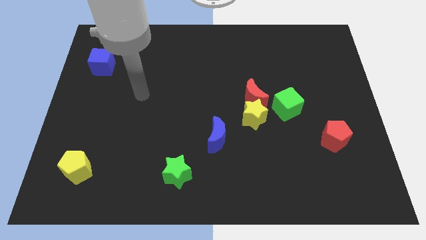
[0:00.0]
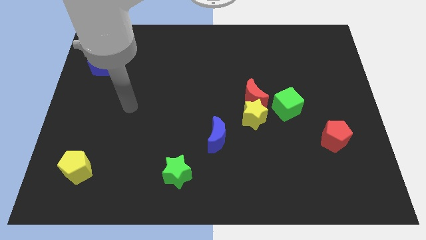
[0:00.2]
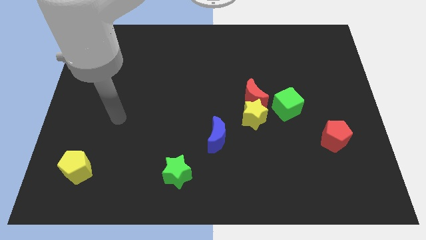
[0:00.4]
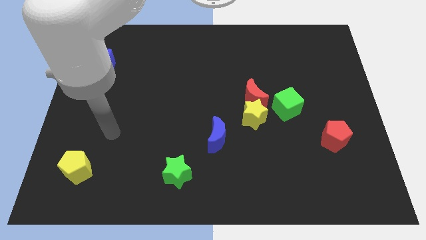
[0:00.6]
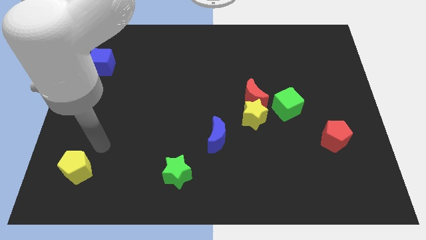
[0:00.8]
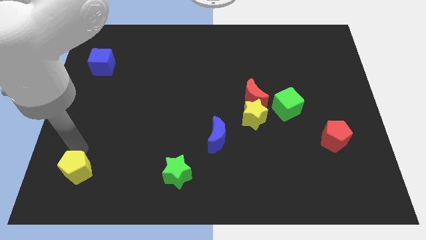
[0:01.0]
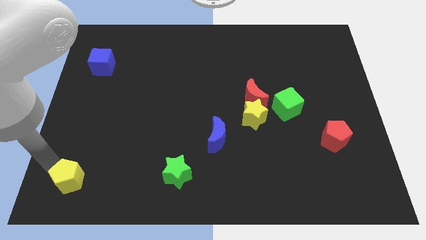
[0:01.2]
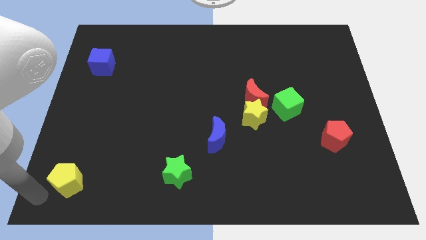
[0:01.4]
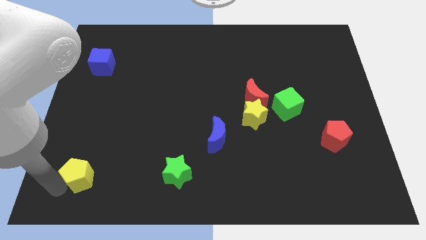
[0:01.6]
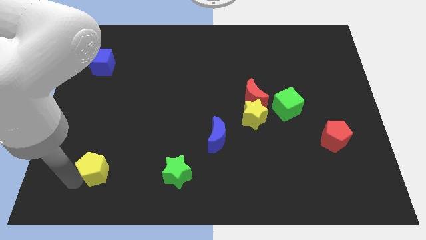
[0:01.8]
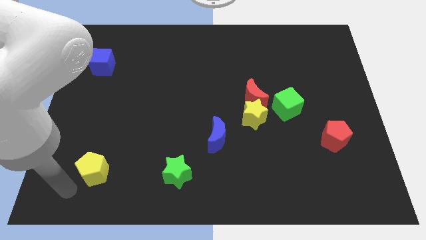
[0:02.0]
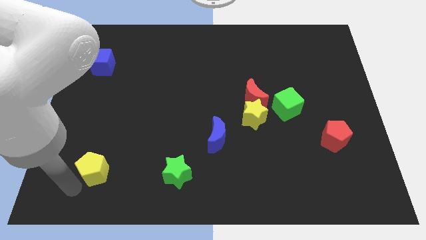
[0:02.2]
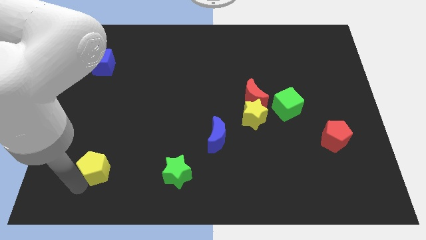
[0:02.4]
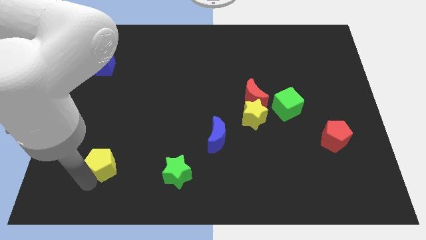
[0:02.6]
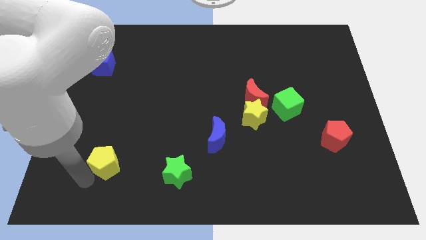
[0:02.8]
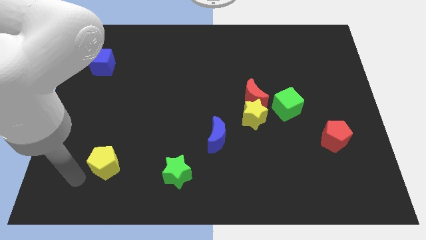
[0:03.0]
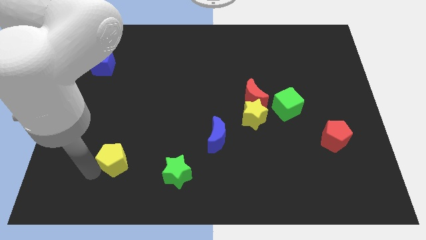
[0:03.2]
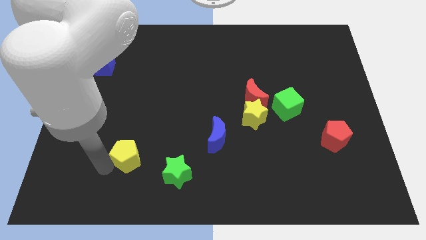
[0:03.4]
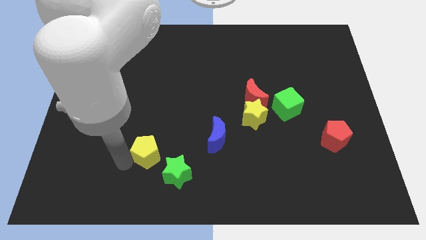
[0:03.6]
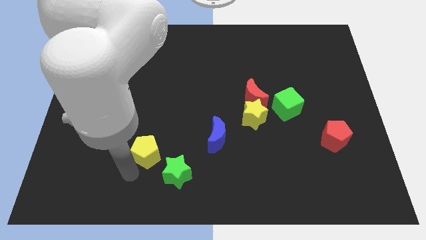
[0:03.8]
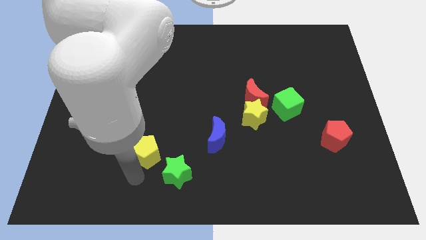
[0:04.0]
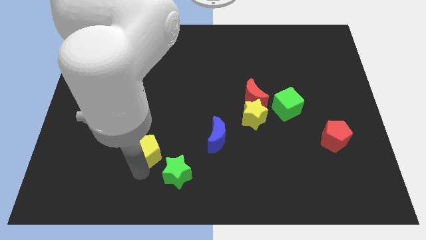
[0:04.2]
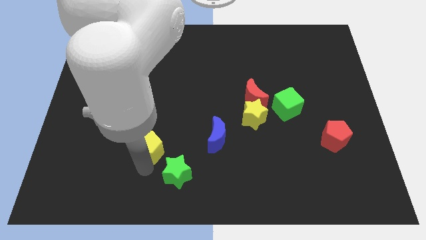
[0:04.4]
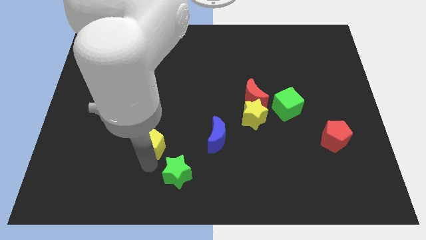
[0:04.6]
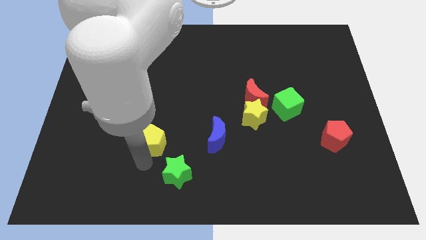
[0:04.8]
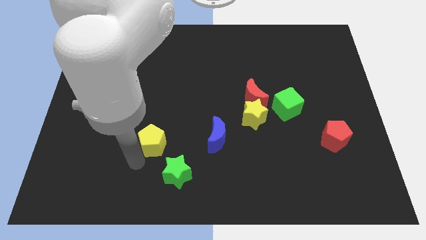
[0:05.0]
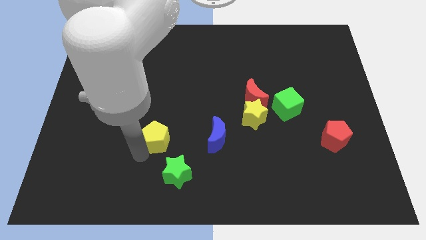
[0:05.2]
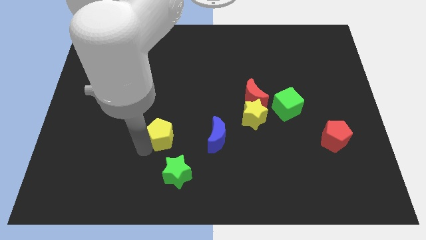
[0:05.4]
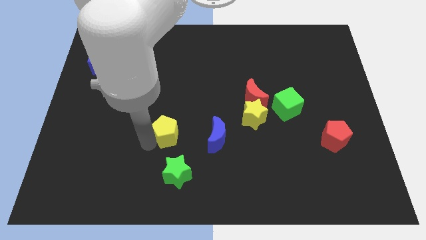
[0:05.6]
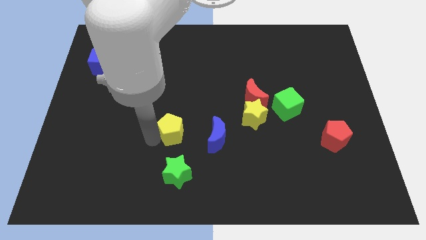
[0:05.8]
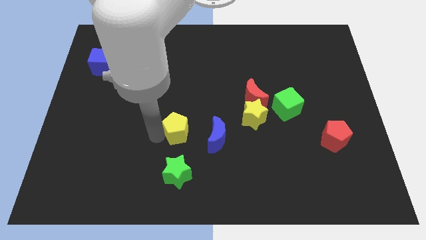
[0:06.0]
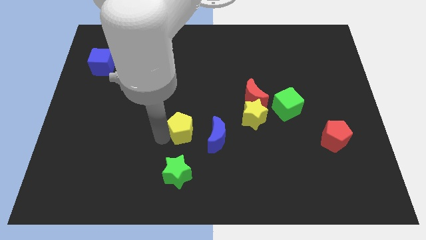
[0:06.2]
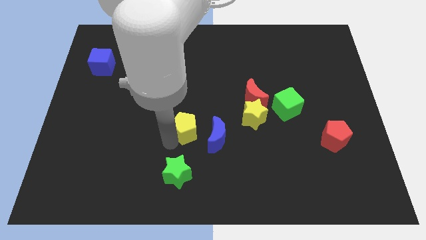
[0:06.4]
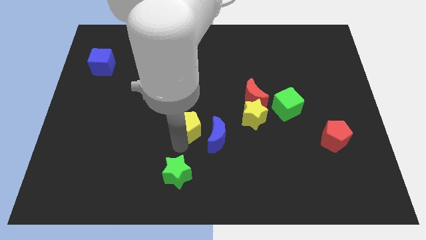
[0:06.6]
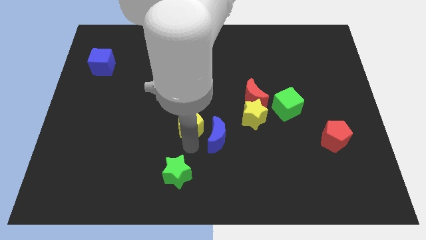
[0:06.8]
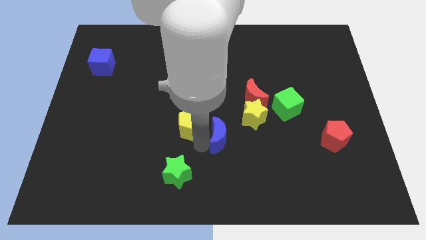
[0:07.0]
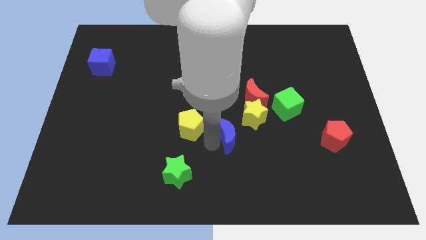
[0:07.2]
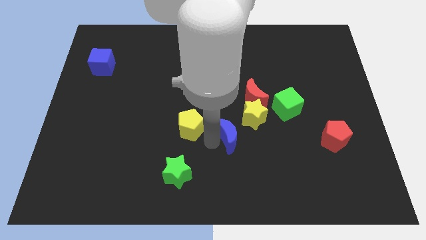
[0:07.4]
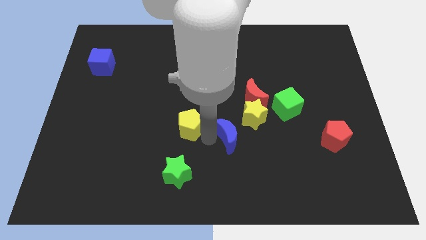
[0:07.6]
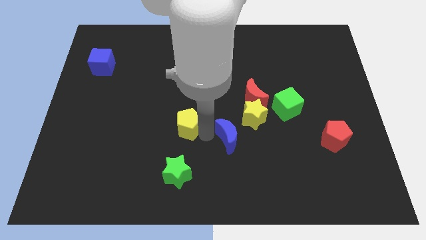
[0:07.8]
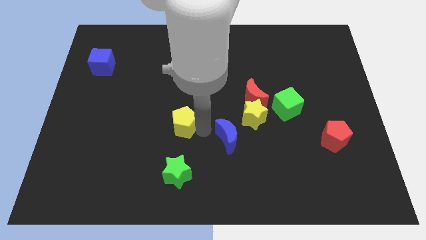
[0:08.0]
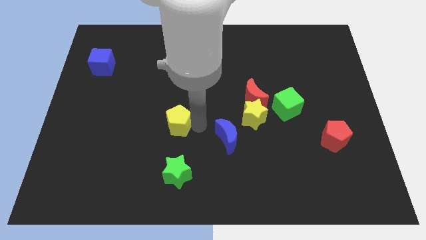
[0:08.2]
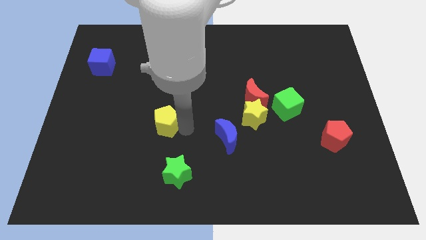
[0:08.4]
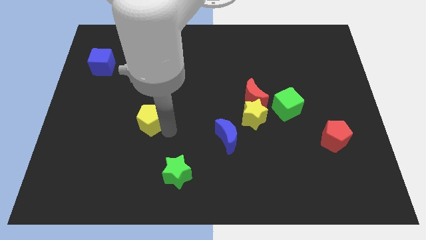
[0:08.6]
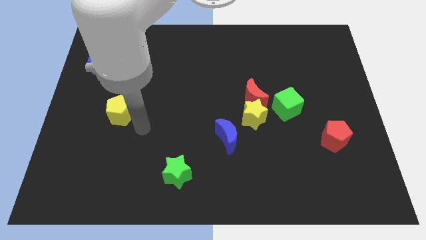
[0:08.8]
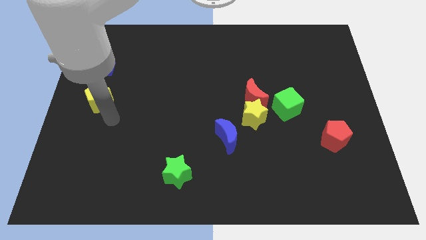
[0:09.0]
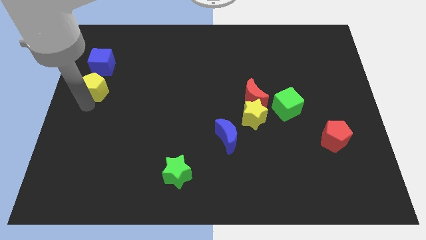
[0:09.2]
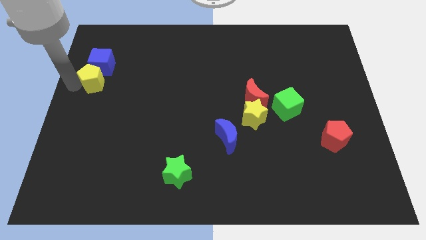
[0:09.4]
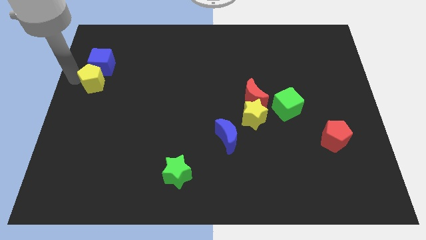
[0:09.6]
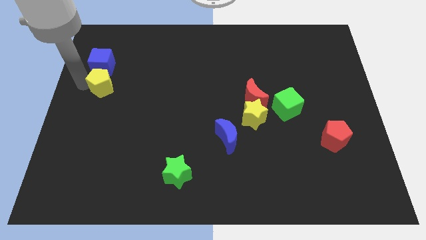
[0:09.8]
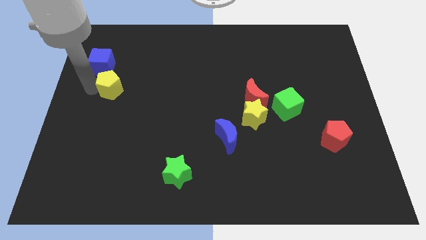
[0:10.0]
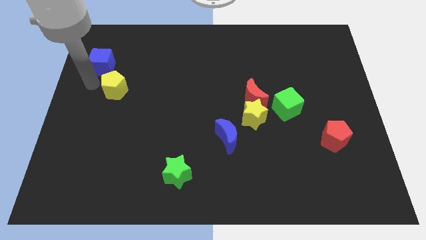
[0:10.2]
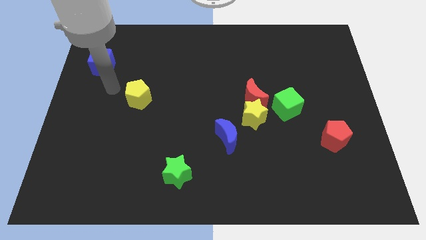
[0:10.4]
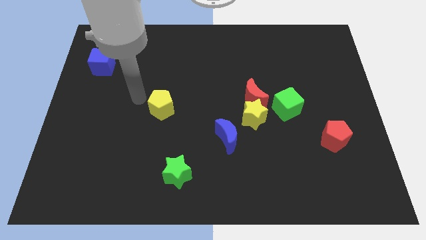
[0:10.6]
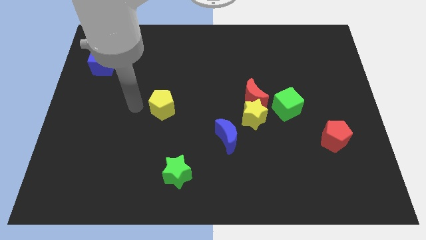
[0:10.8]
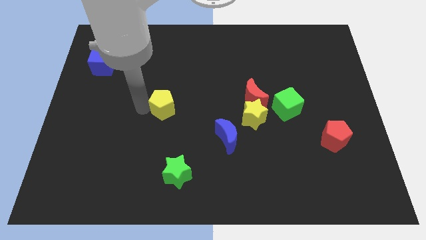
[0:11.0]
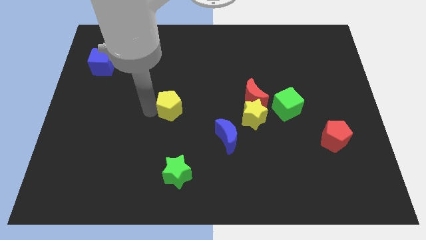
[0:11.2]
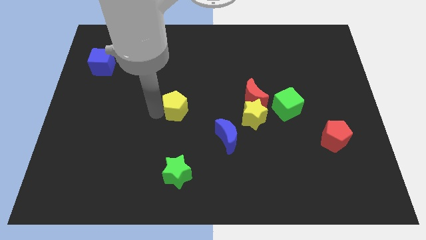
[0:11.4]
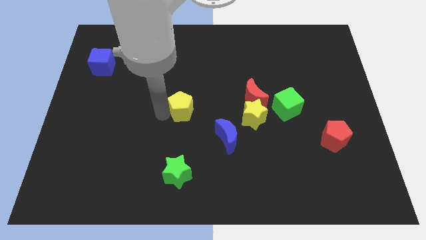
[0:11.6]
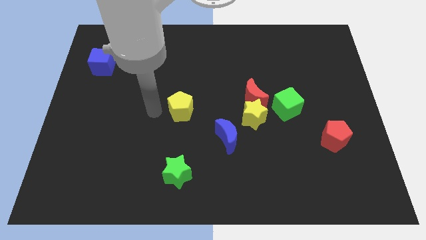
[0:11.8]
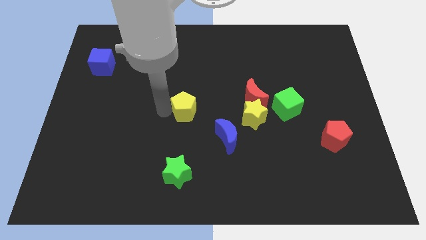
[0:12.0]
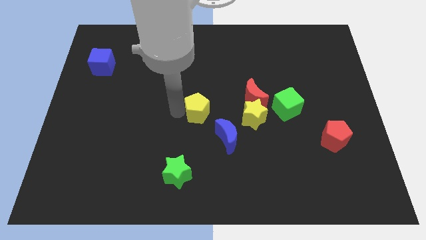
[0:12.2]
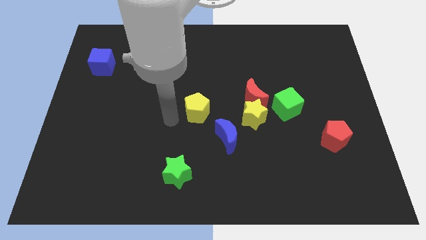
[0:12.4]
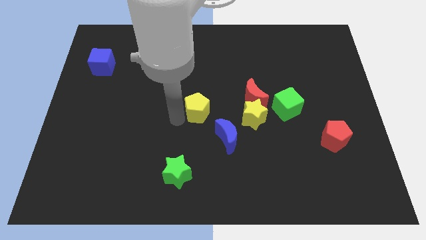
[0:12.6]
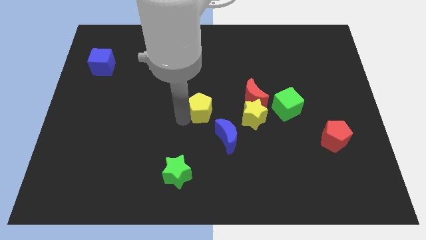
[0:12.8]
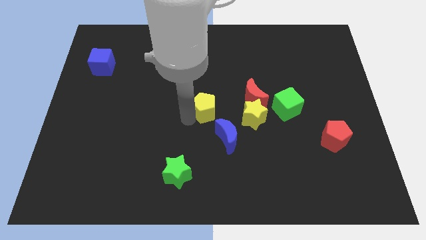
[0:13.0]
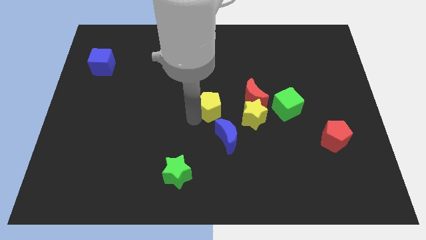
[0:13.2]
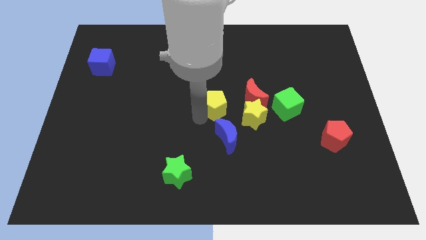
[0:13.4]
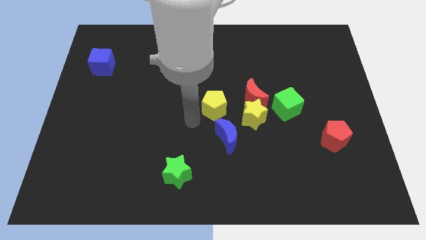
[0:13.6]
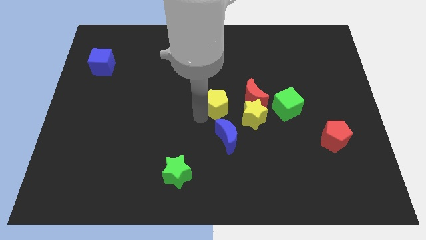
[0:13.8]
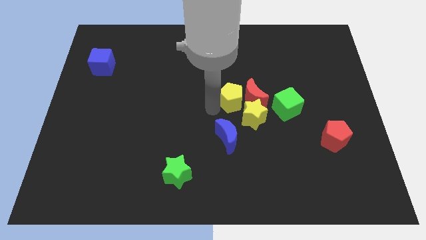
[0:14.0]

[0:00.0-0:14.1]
push the yellow pentagon towards the red moon
